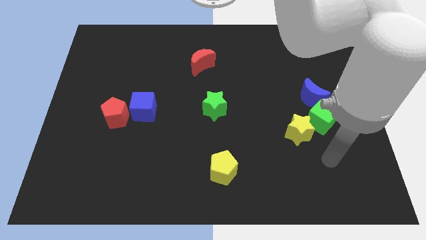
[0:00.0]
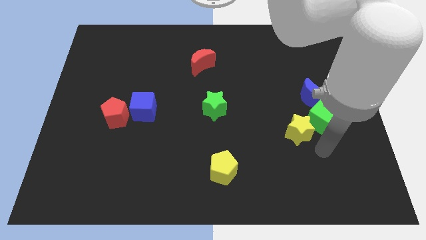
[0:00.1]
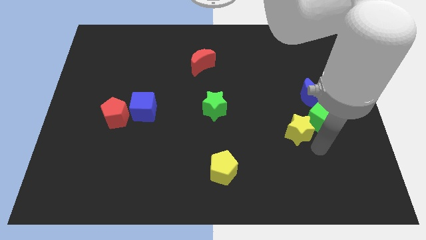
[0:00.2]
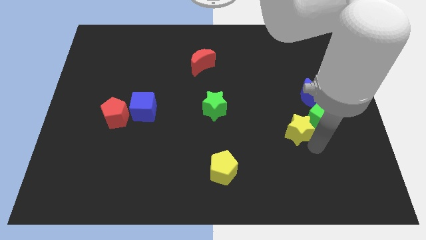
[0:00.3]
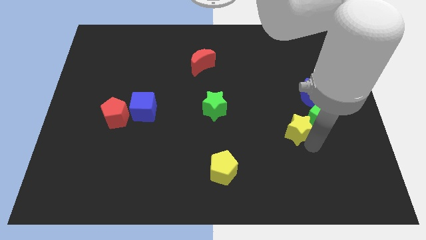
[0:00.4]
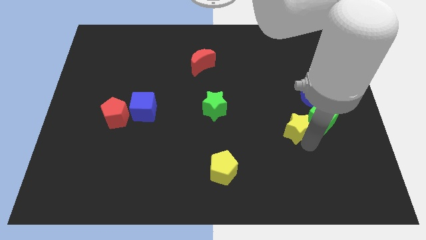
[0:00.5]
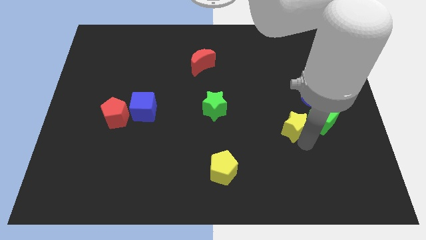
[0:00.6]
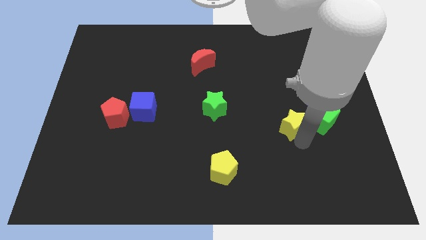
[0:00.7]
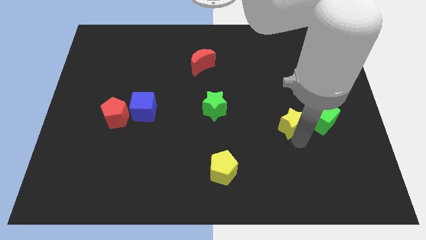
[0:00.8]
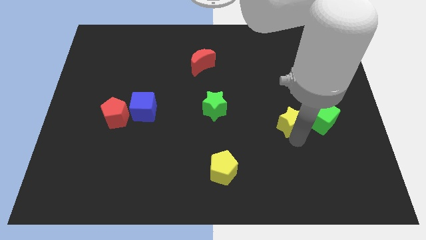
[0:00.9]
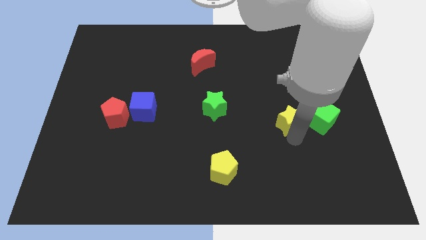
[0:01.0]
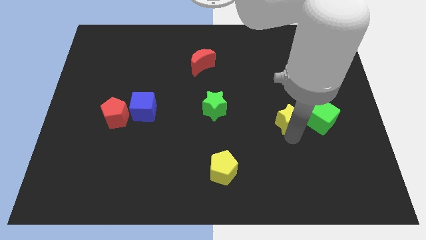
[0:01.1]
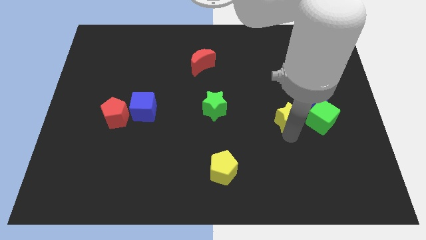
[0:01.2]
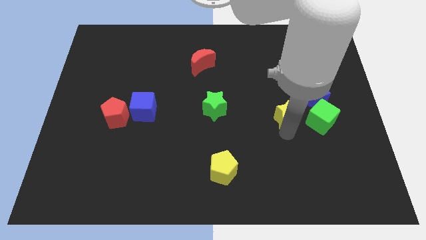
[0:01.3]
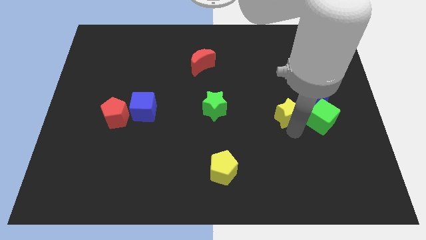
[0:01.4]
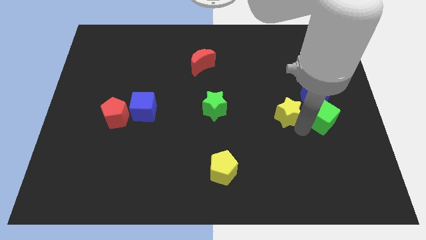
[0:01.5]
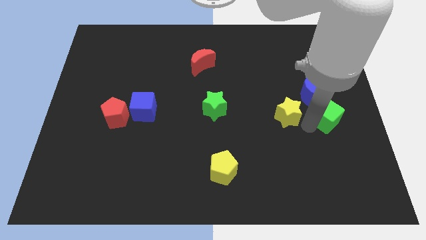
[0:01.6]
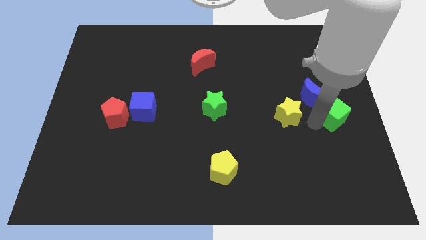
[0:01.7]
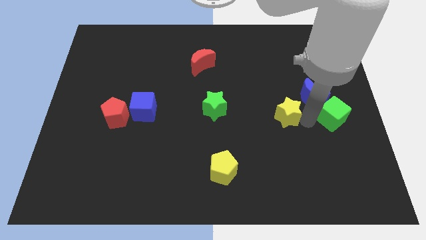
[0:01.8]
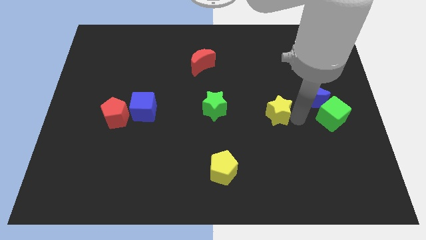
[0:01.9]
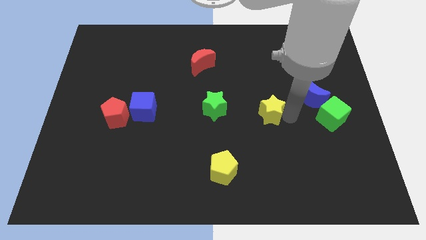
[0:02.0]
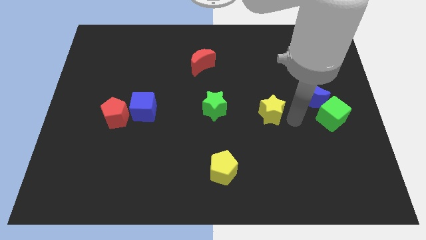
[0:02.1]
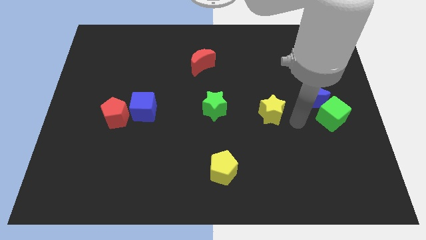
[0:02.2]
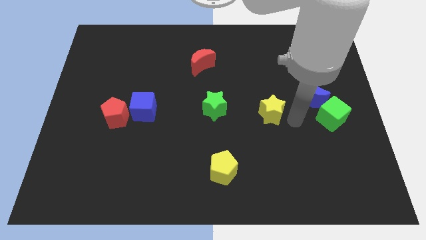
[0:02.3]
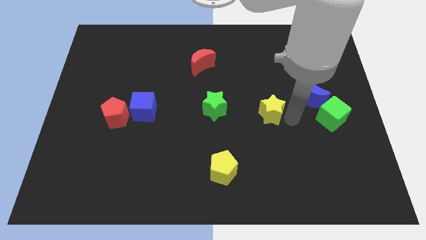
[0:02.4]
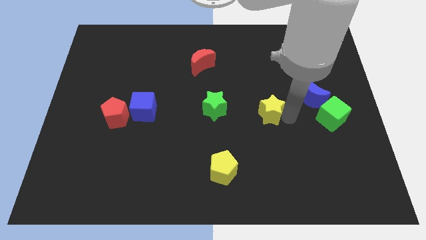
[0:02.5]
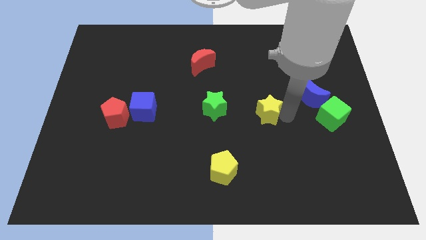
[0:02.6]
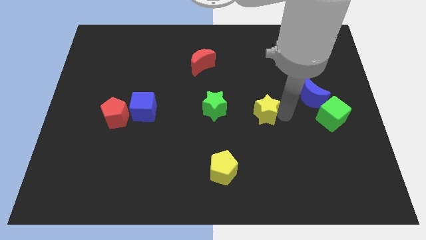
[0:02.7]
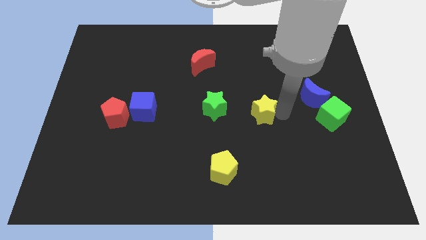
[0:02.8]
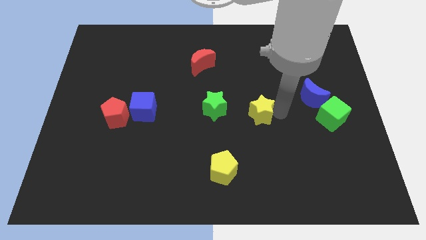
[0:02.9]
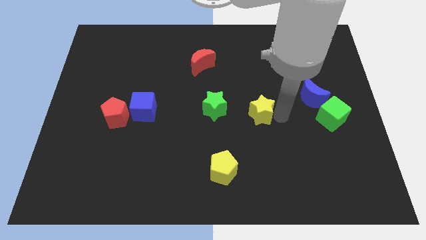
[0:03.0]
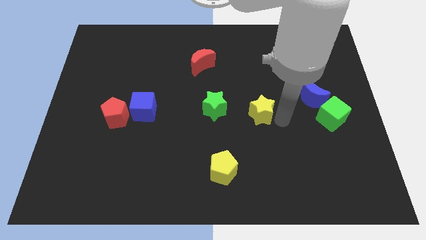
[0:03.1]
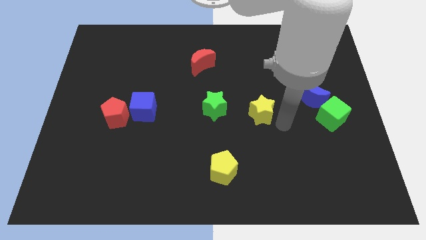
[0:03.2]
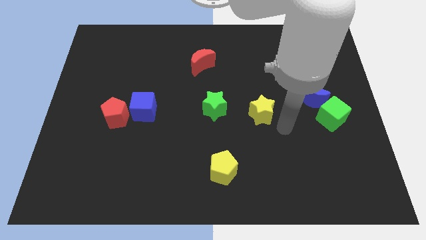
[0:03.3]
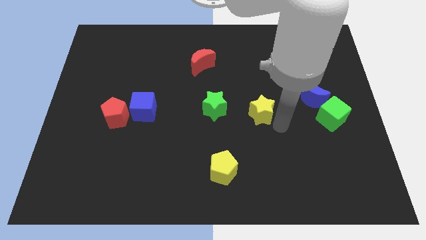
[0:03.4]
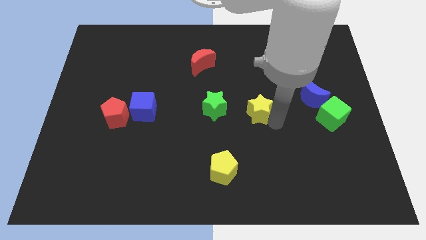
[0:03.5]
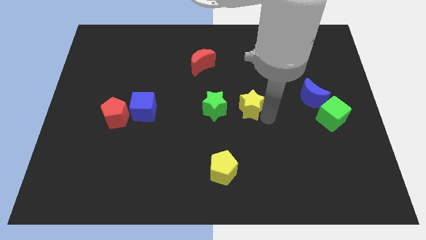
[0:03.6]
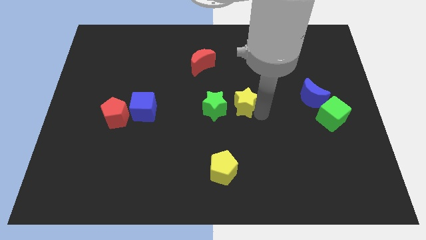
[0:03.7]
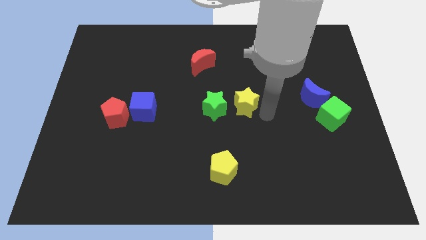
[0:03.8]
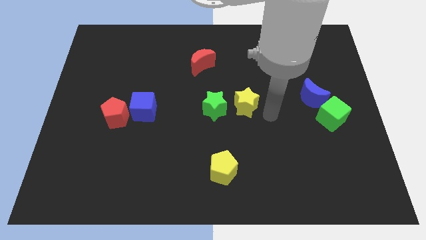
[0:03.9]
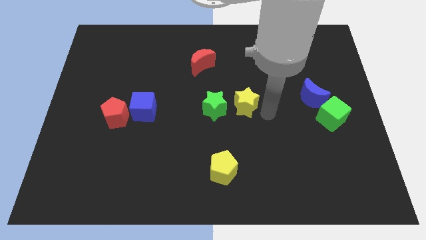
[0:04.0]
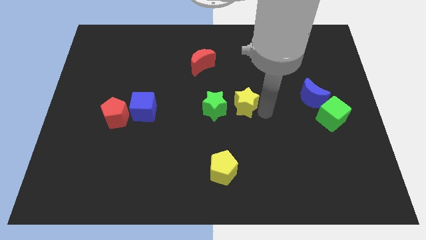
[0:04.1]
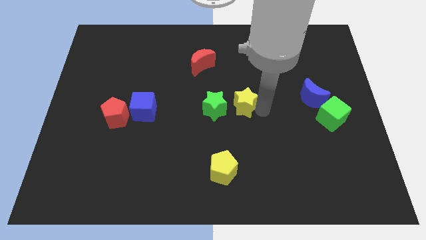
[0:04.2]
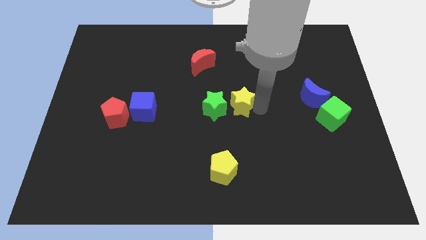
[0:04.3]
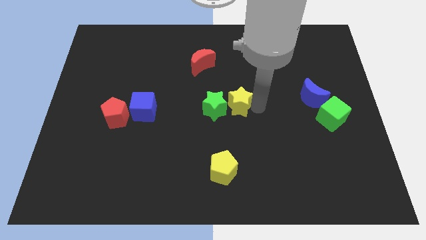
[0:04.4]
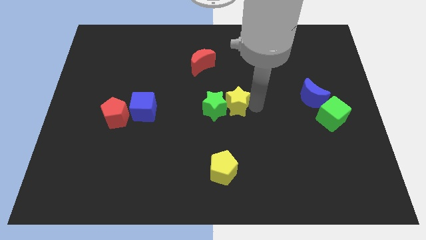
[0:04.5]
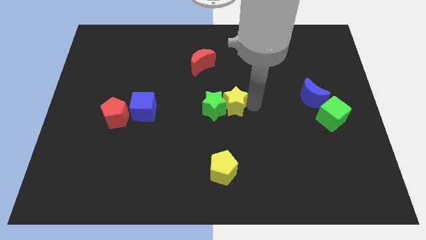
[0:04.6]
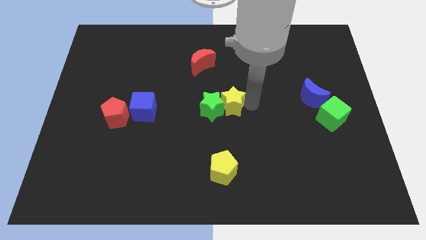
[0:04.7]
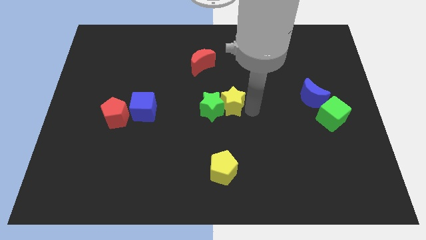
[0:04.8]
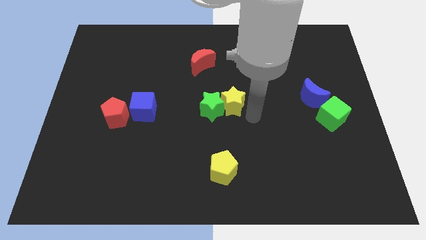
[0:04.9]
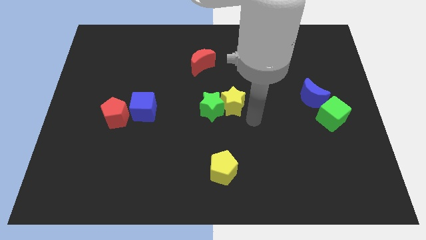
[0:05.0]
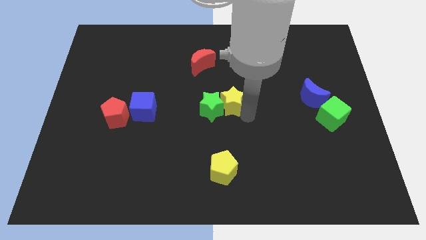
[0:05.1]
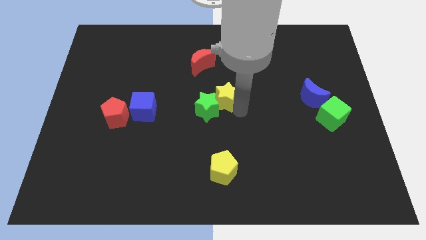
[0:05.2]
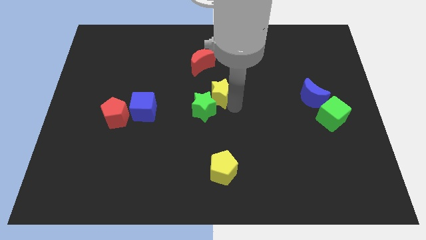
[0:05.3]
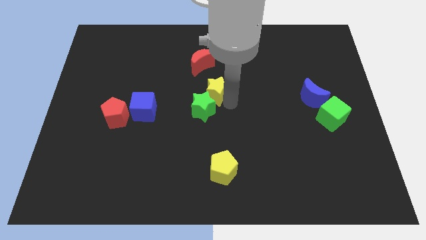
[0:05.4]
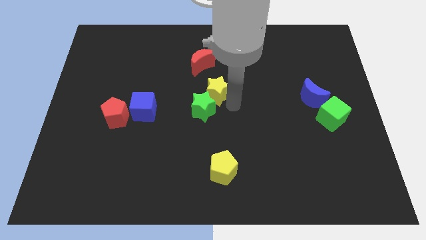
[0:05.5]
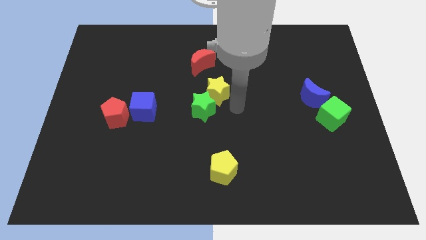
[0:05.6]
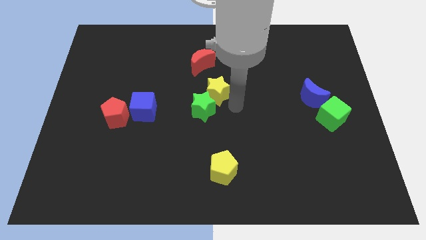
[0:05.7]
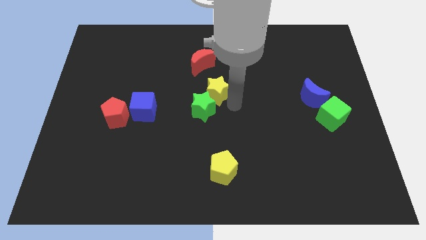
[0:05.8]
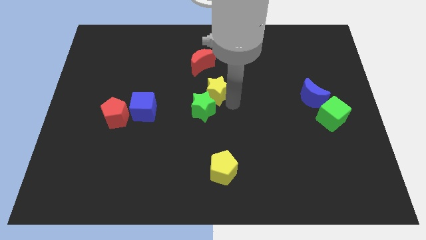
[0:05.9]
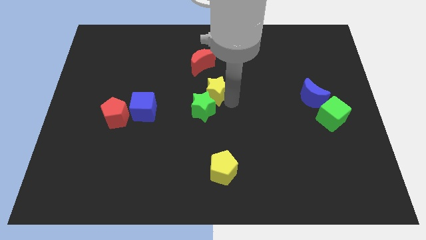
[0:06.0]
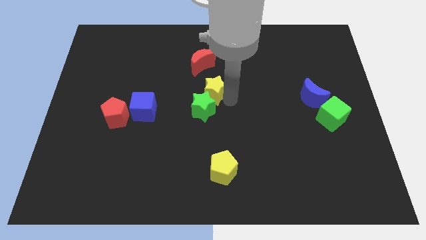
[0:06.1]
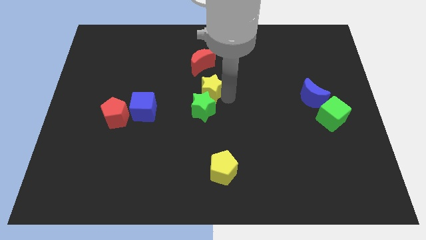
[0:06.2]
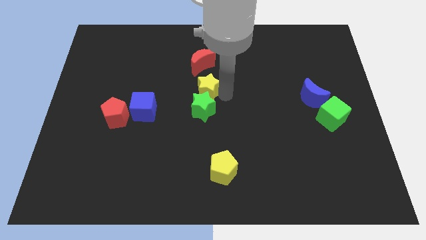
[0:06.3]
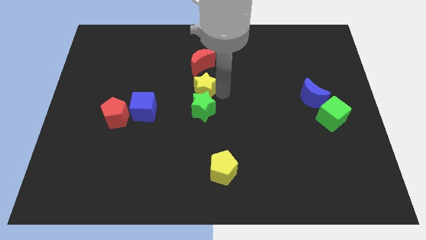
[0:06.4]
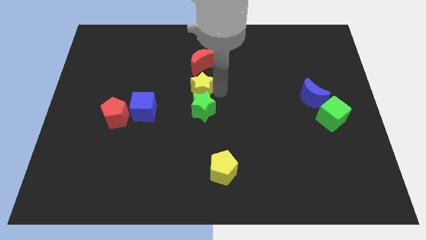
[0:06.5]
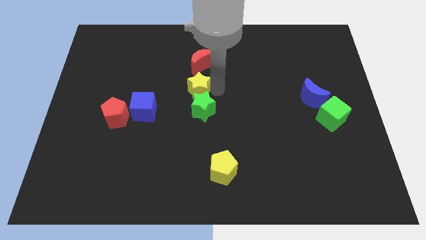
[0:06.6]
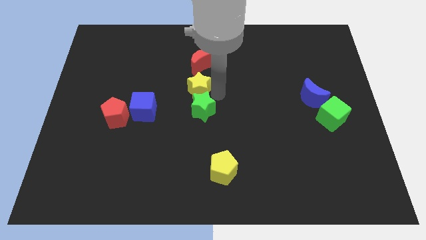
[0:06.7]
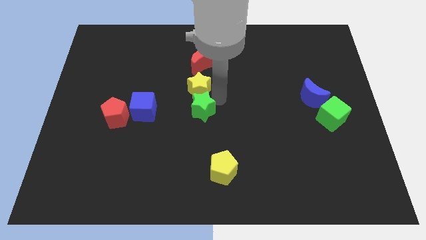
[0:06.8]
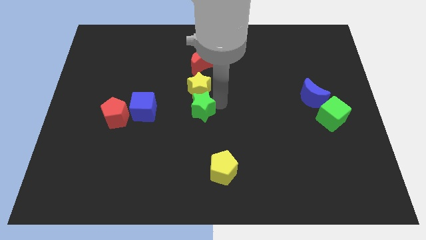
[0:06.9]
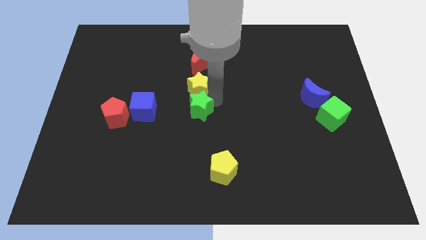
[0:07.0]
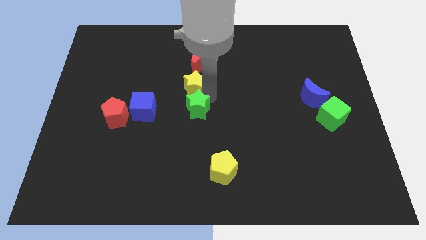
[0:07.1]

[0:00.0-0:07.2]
slide the yellow star to the bottom left side of the red moon
